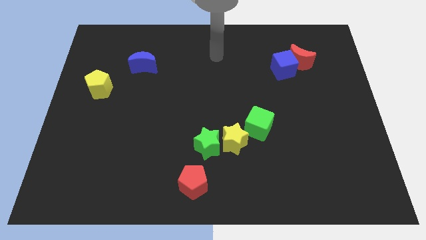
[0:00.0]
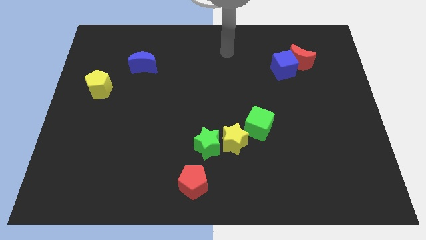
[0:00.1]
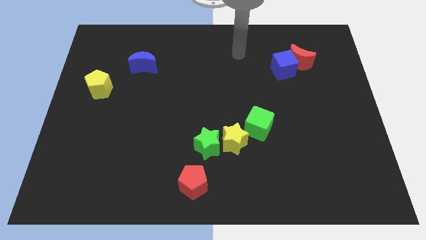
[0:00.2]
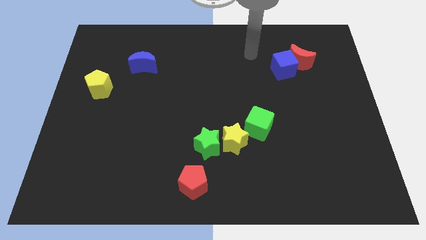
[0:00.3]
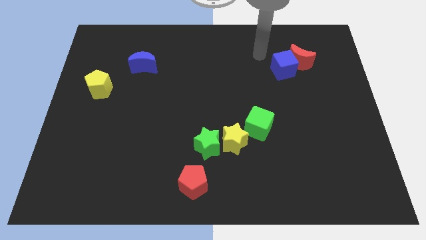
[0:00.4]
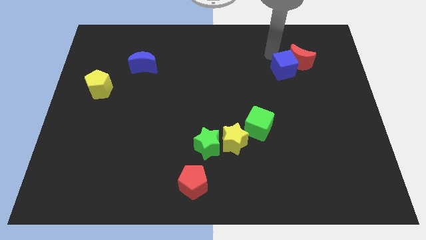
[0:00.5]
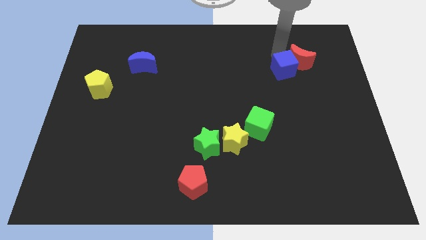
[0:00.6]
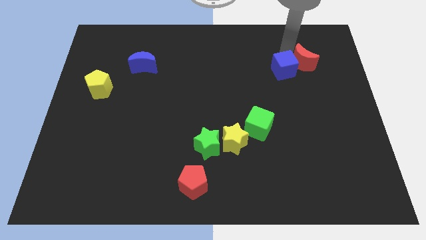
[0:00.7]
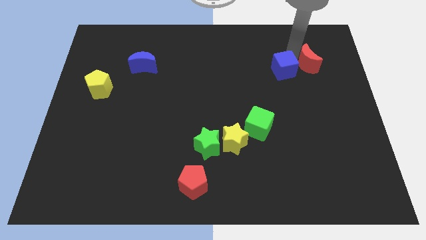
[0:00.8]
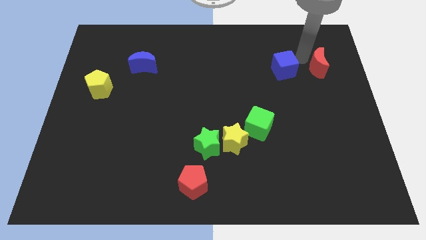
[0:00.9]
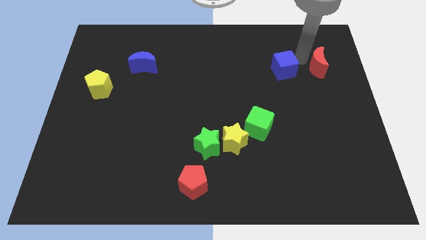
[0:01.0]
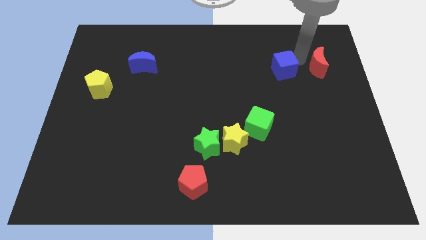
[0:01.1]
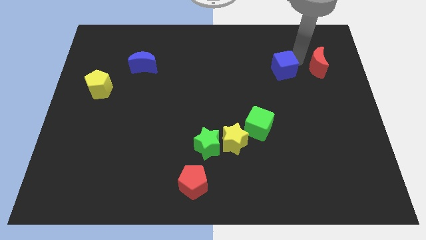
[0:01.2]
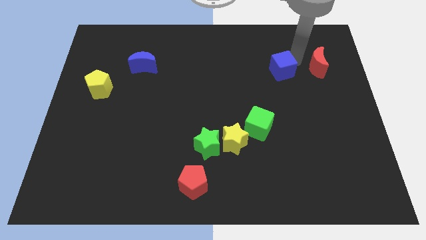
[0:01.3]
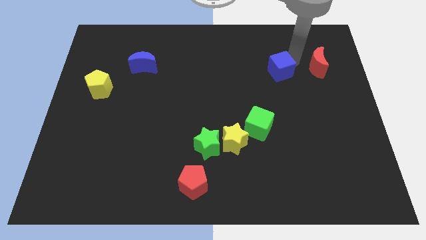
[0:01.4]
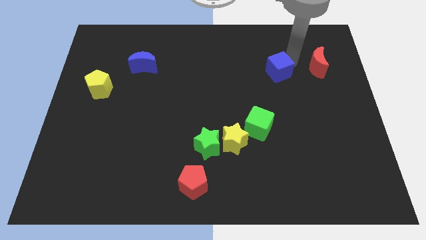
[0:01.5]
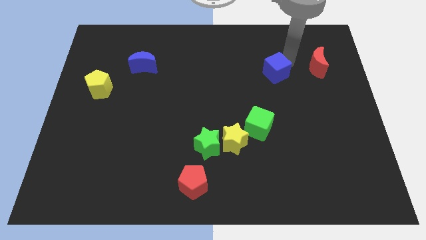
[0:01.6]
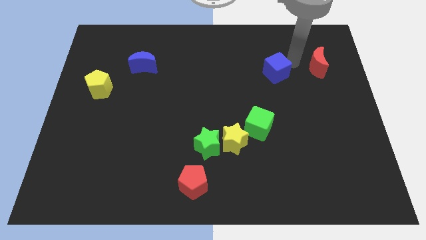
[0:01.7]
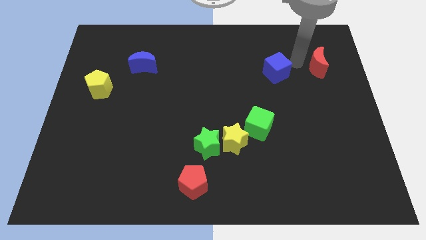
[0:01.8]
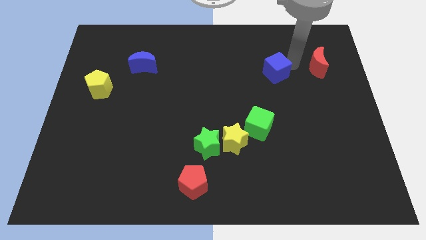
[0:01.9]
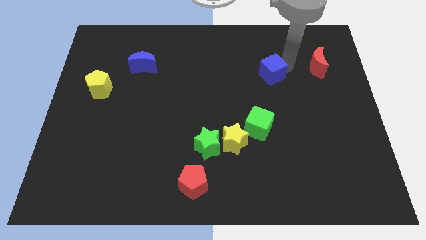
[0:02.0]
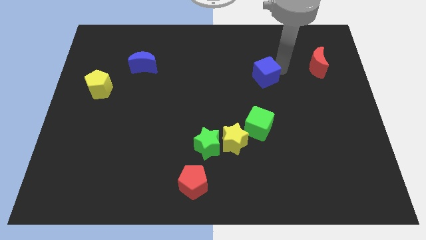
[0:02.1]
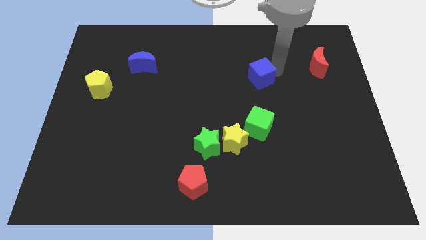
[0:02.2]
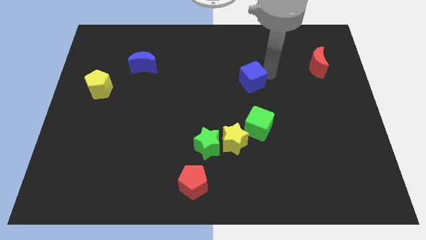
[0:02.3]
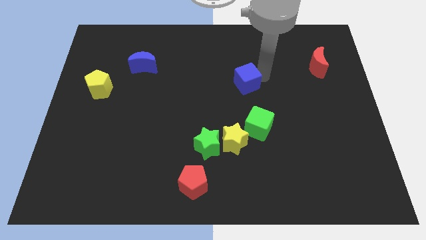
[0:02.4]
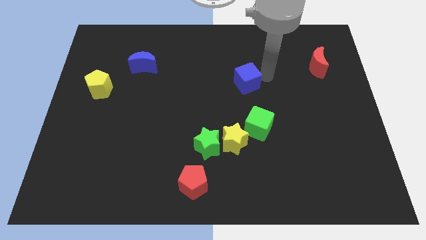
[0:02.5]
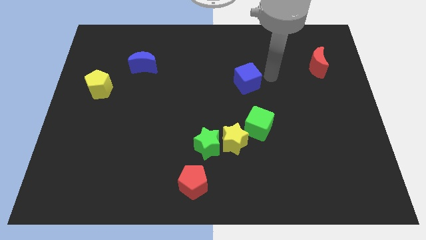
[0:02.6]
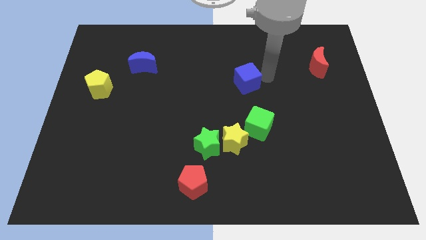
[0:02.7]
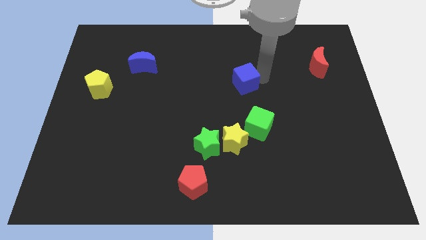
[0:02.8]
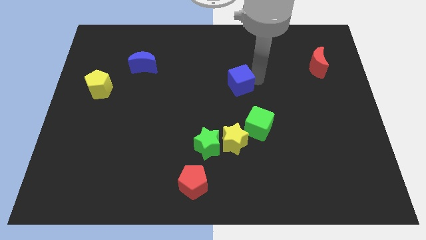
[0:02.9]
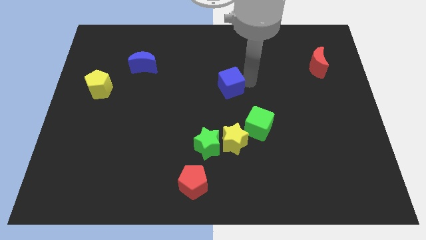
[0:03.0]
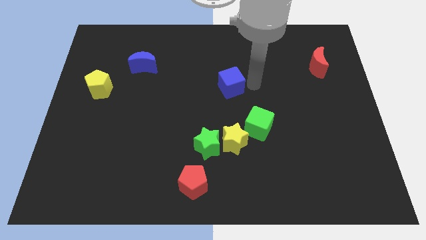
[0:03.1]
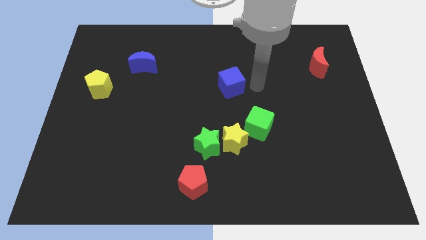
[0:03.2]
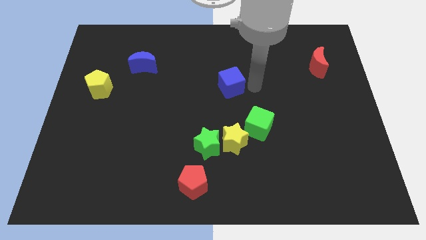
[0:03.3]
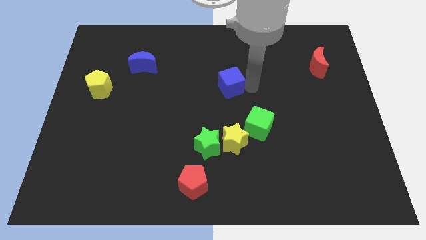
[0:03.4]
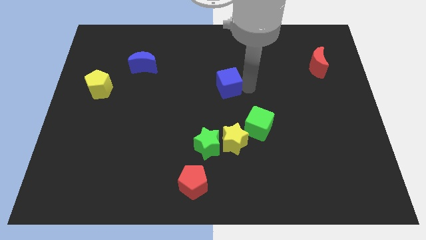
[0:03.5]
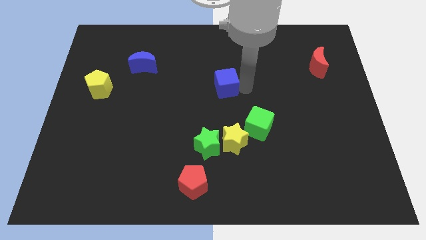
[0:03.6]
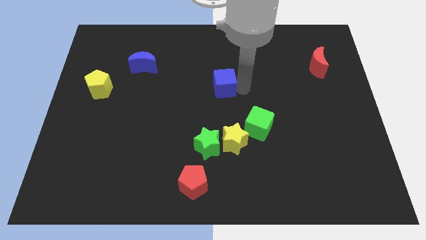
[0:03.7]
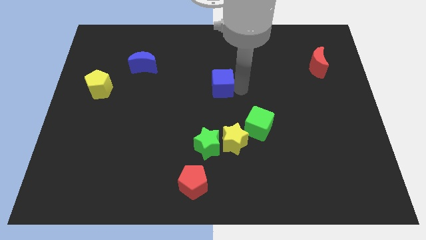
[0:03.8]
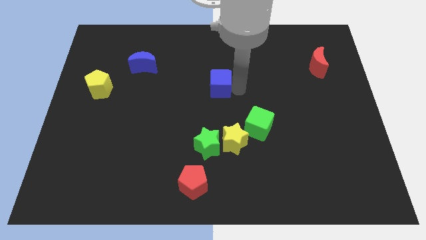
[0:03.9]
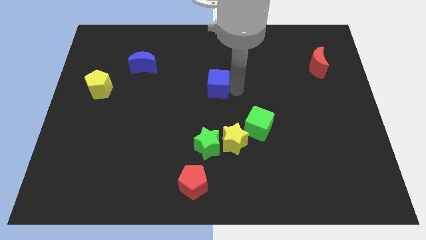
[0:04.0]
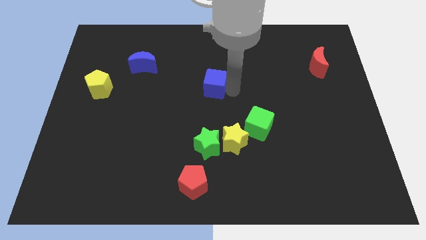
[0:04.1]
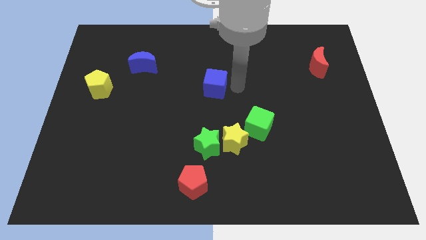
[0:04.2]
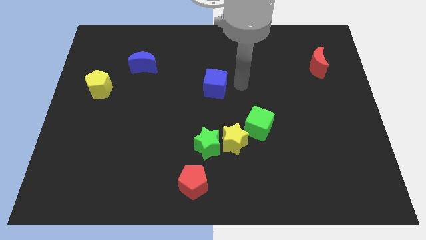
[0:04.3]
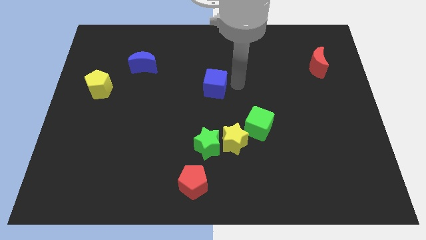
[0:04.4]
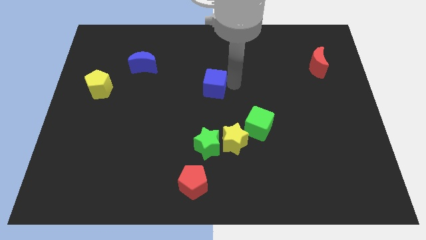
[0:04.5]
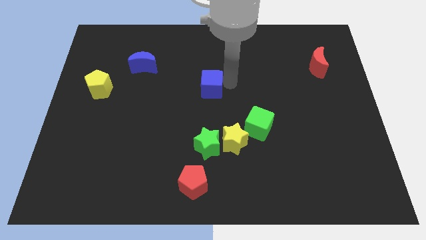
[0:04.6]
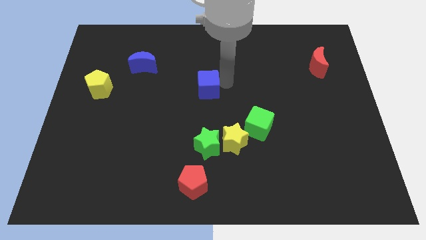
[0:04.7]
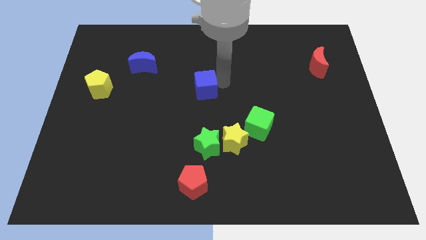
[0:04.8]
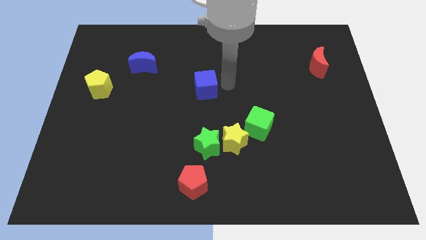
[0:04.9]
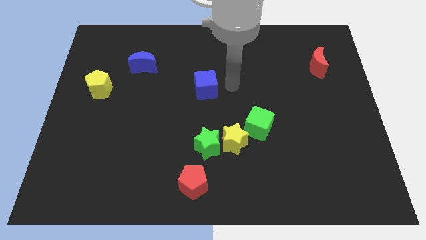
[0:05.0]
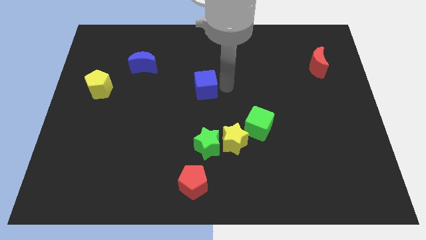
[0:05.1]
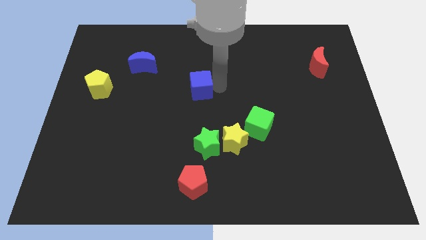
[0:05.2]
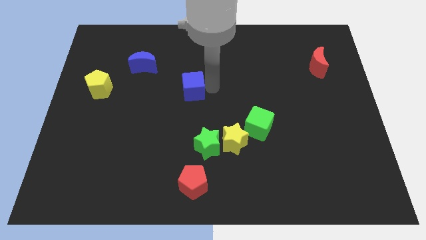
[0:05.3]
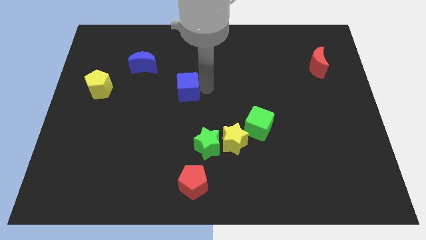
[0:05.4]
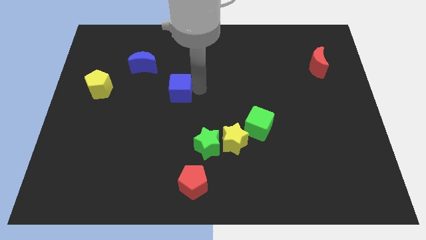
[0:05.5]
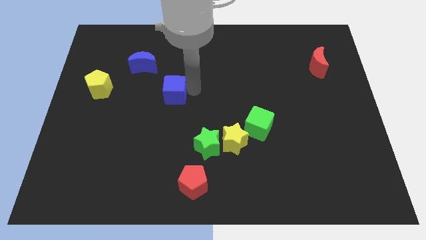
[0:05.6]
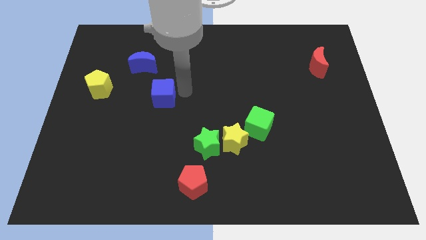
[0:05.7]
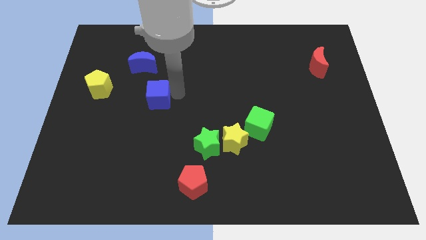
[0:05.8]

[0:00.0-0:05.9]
slide the blue cube to the bottom of the blue moon

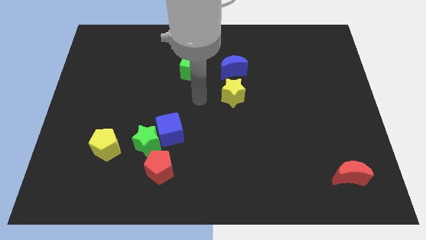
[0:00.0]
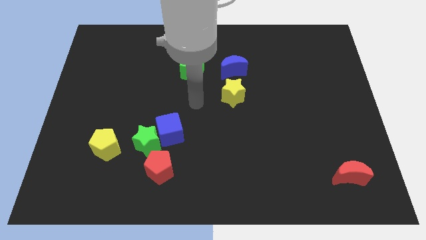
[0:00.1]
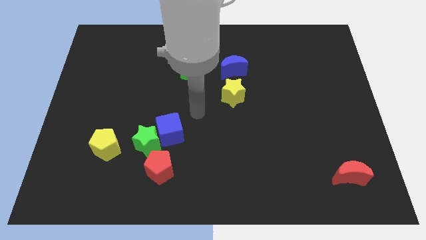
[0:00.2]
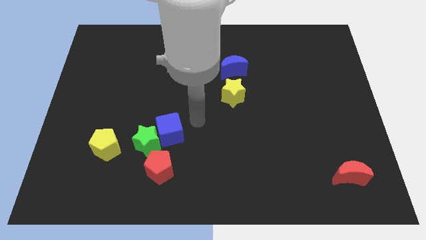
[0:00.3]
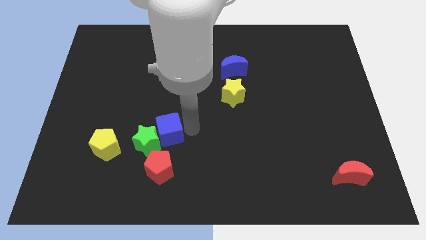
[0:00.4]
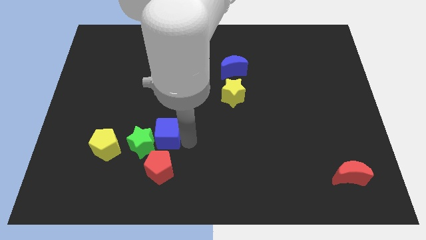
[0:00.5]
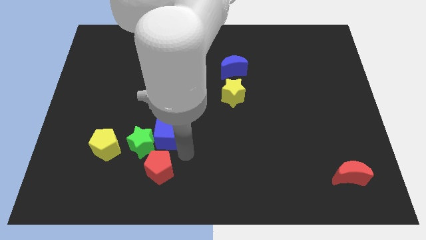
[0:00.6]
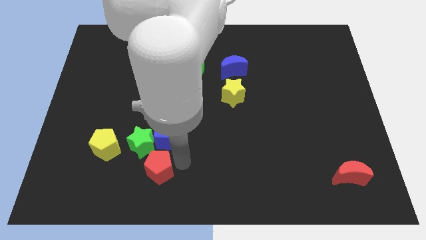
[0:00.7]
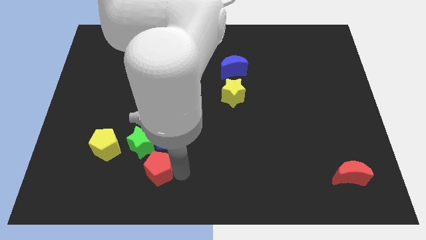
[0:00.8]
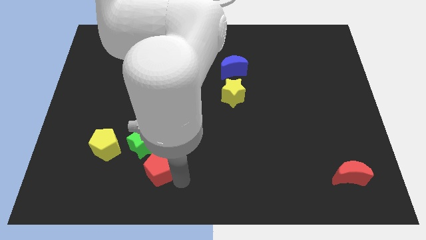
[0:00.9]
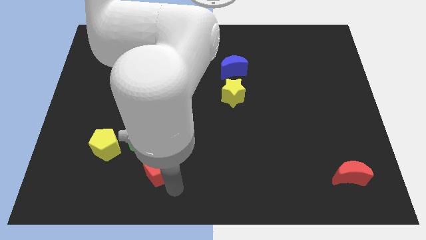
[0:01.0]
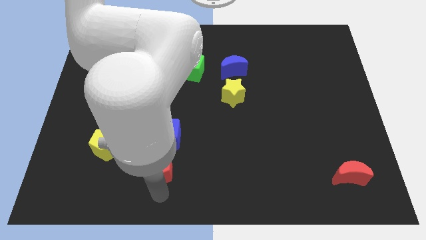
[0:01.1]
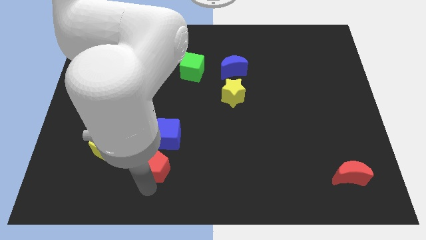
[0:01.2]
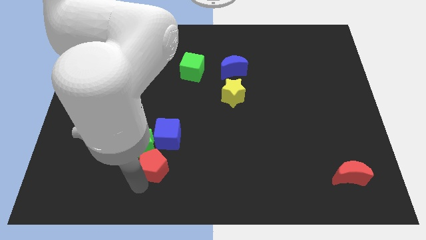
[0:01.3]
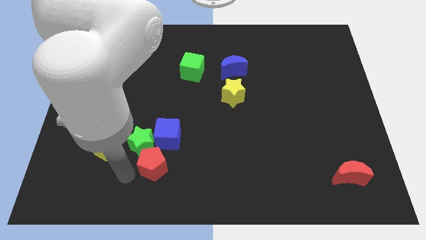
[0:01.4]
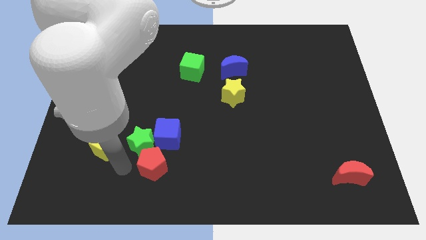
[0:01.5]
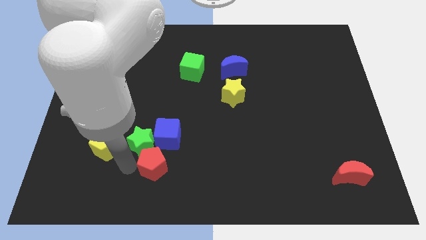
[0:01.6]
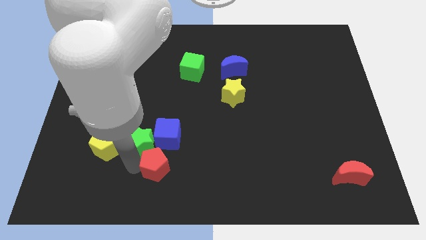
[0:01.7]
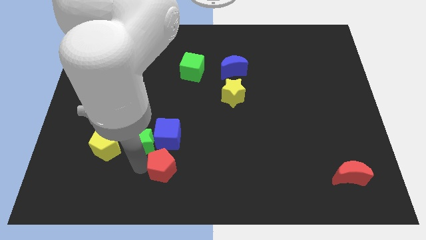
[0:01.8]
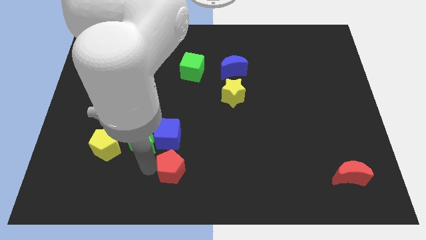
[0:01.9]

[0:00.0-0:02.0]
move the red pentagon diagonally down and to the right of the blue cube
